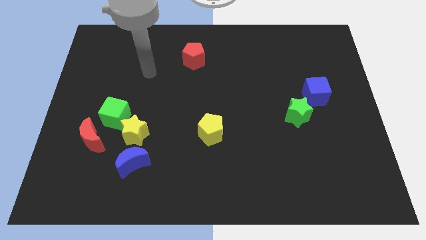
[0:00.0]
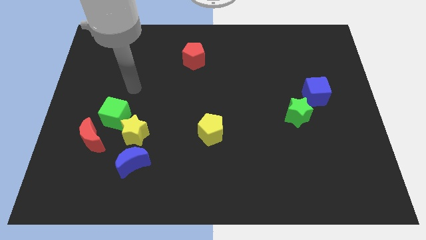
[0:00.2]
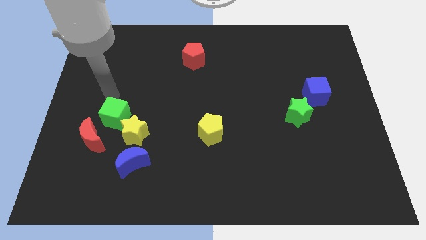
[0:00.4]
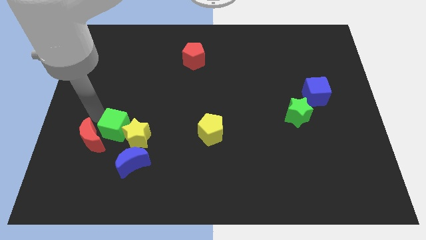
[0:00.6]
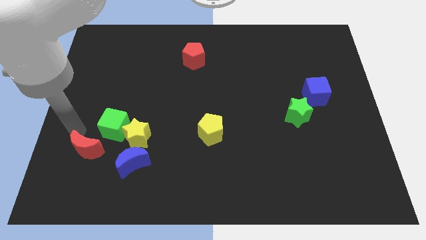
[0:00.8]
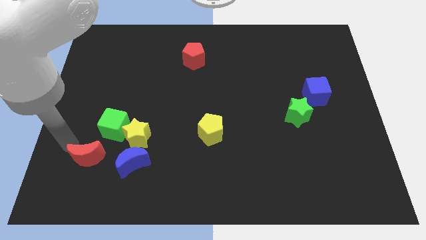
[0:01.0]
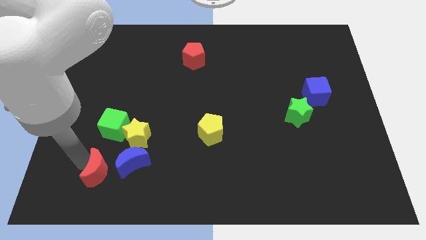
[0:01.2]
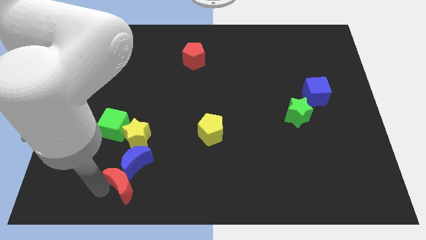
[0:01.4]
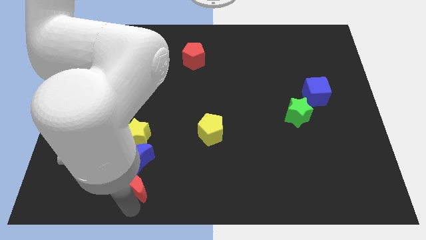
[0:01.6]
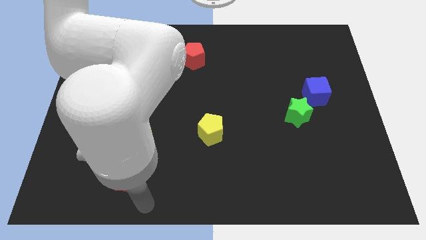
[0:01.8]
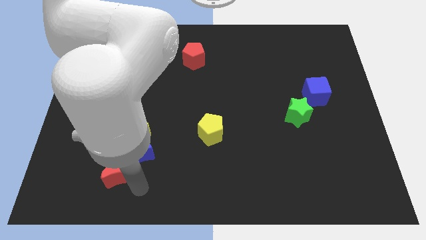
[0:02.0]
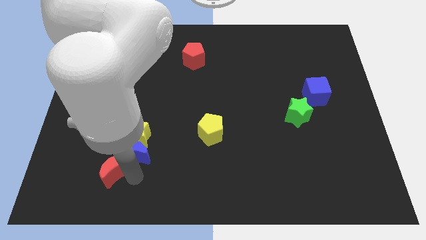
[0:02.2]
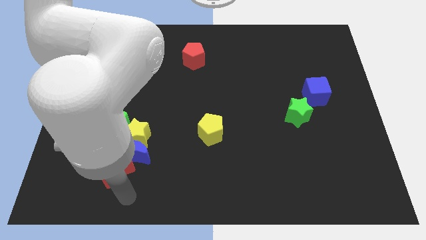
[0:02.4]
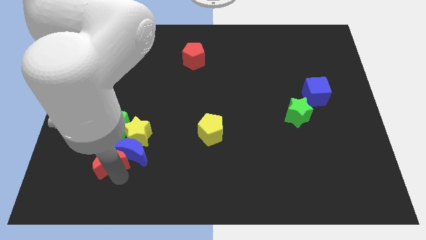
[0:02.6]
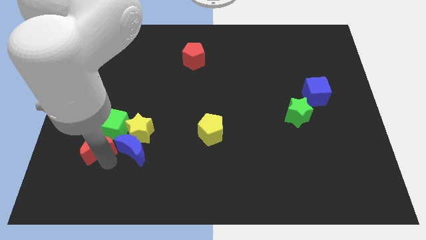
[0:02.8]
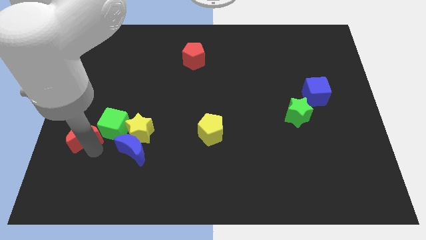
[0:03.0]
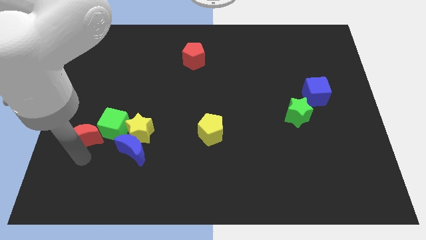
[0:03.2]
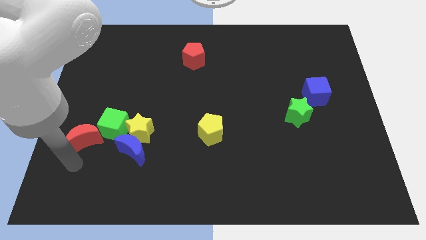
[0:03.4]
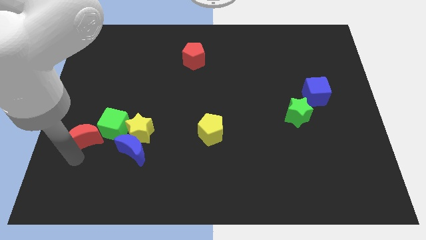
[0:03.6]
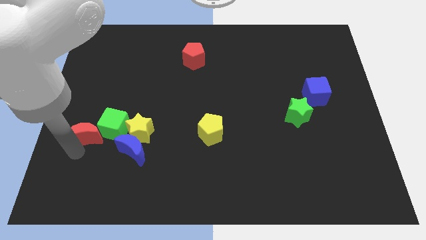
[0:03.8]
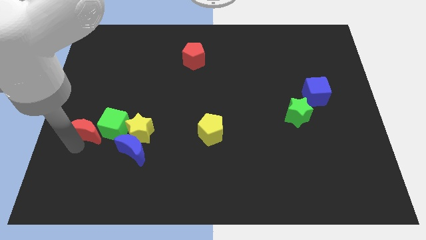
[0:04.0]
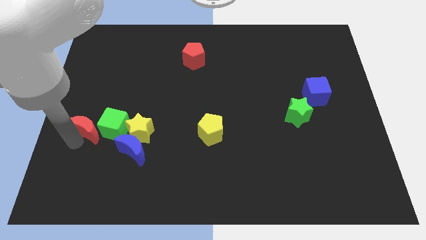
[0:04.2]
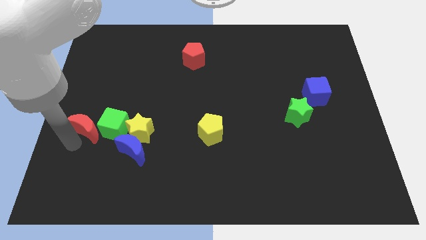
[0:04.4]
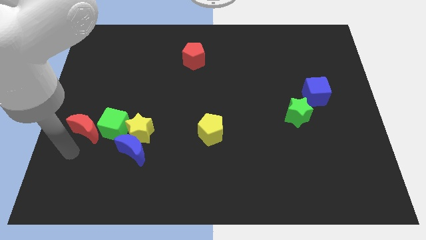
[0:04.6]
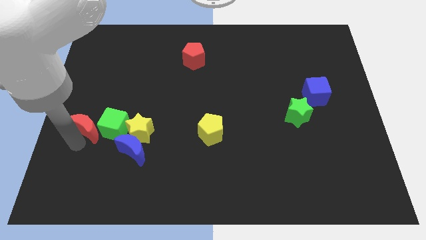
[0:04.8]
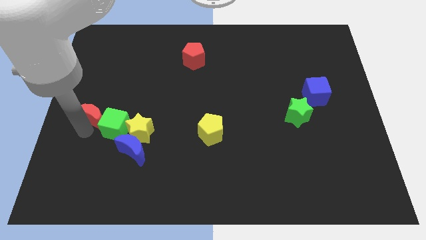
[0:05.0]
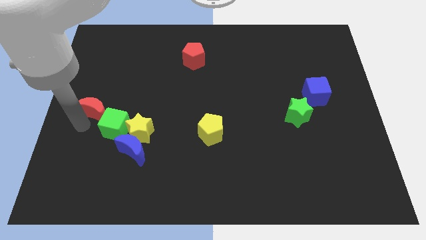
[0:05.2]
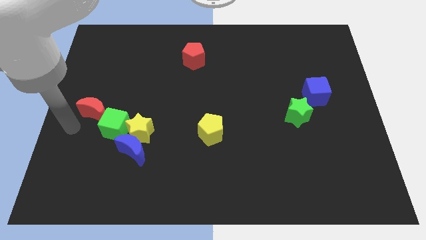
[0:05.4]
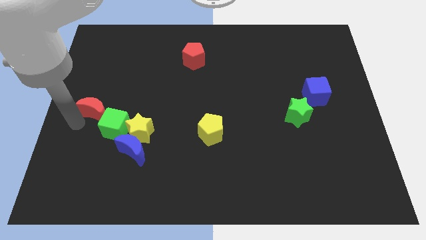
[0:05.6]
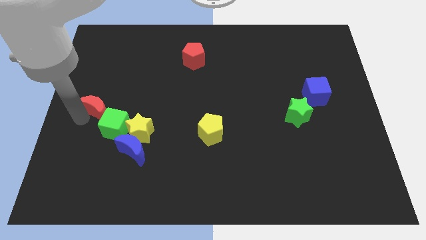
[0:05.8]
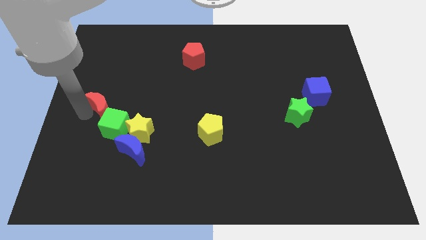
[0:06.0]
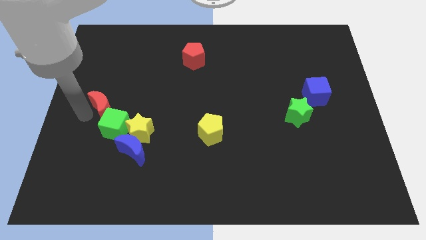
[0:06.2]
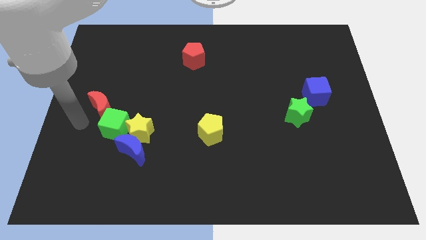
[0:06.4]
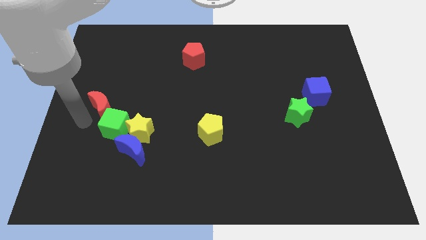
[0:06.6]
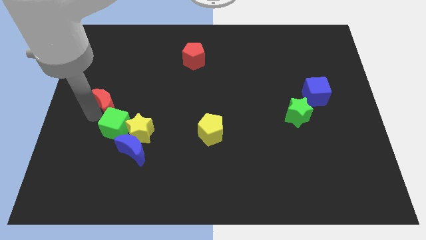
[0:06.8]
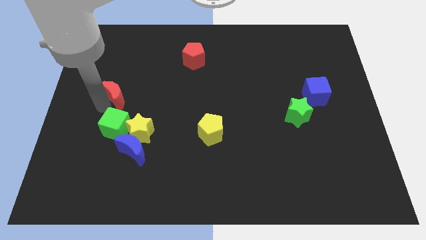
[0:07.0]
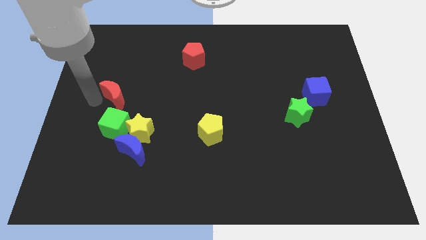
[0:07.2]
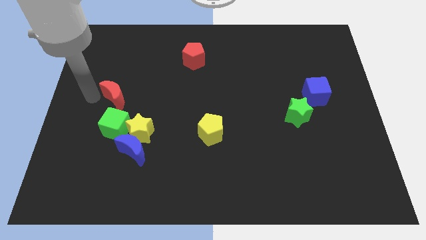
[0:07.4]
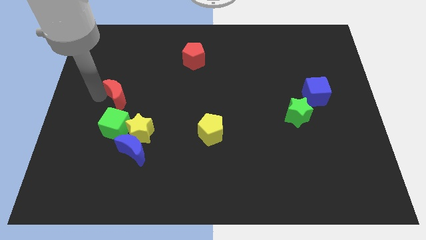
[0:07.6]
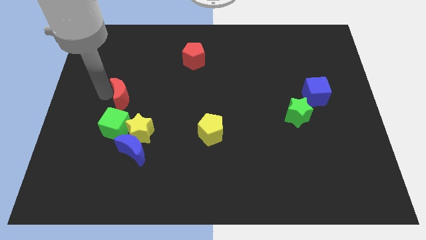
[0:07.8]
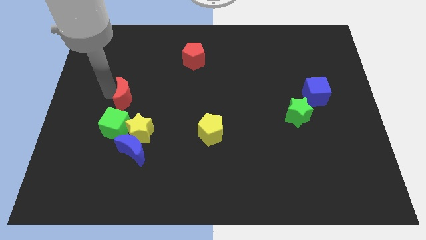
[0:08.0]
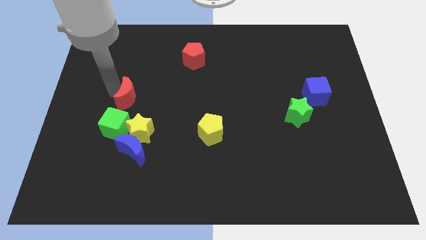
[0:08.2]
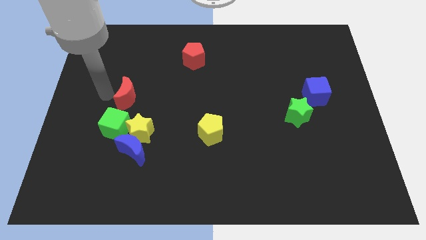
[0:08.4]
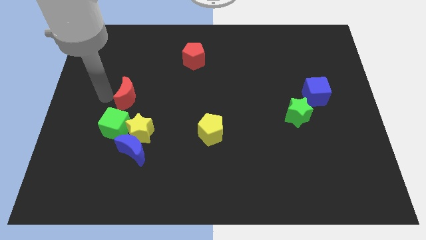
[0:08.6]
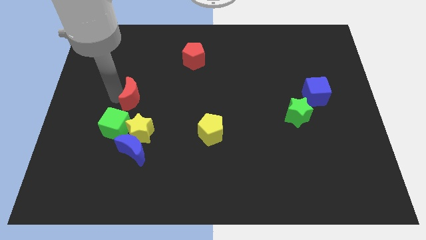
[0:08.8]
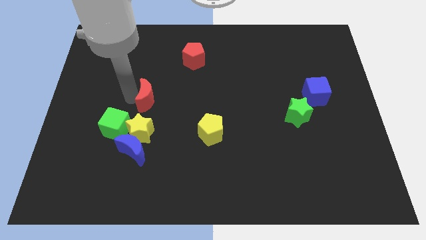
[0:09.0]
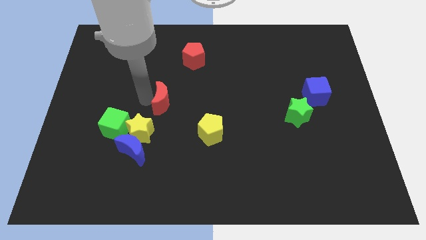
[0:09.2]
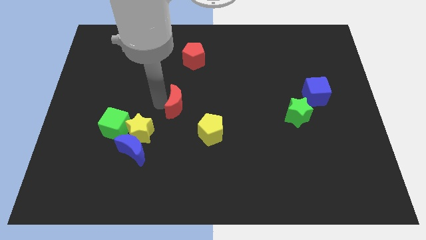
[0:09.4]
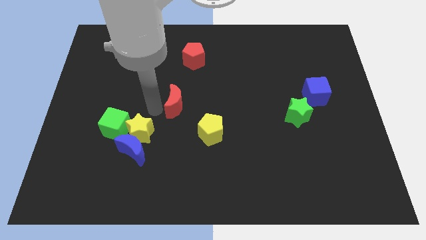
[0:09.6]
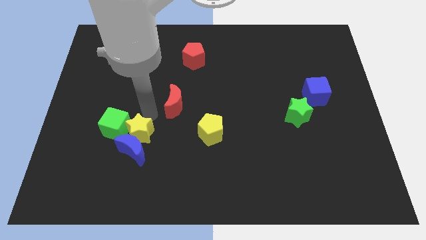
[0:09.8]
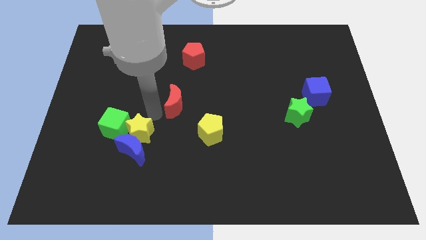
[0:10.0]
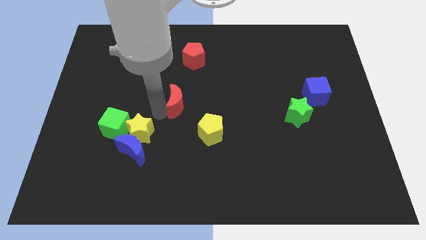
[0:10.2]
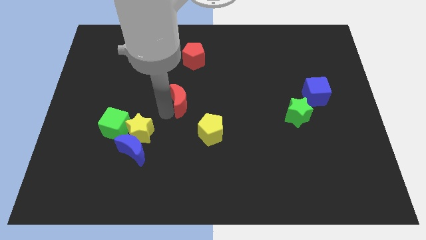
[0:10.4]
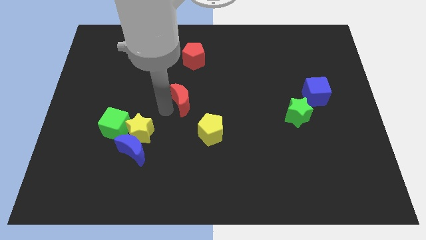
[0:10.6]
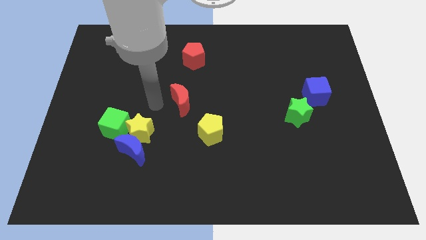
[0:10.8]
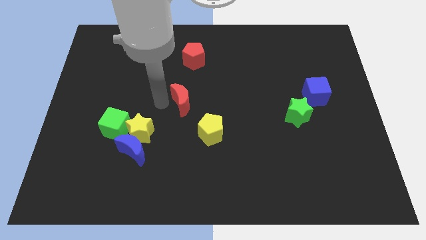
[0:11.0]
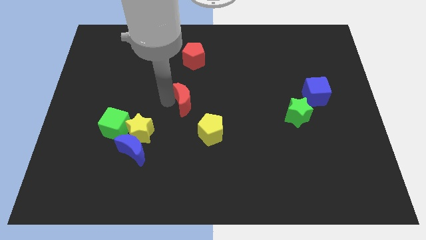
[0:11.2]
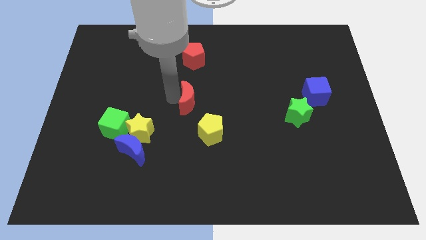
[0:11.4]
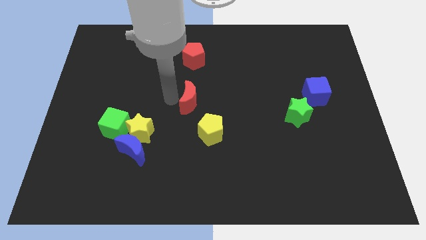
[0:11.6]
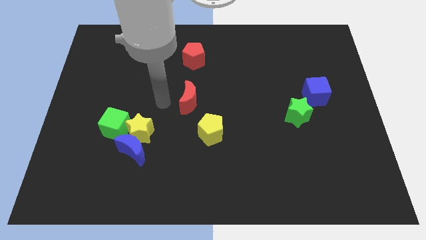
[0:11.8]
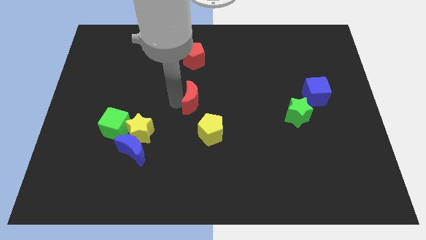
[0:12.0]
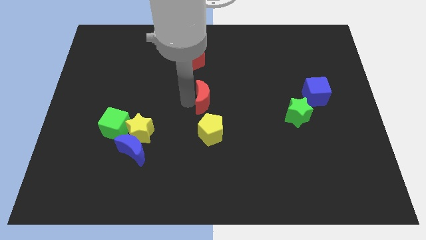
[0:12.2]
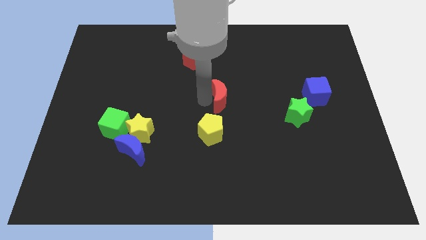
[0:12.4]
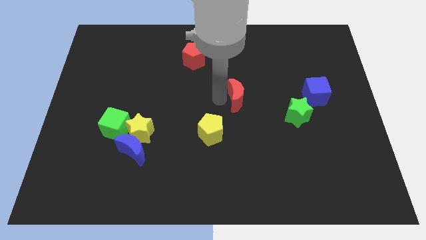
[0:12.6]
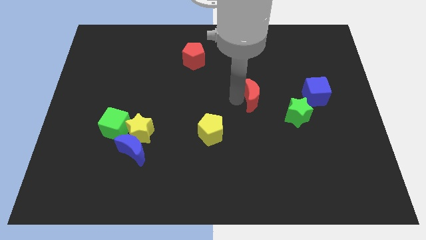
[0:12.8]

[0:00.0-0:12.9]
slide the red moon left of the blue cube

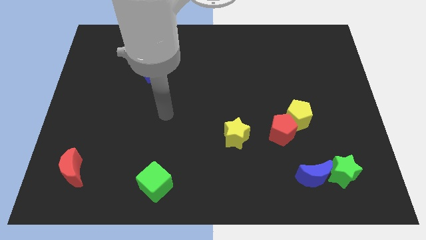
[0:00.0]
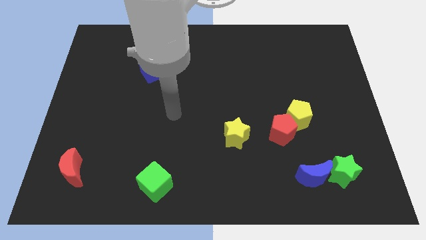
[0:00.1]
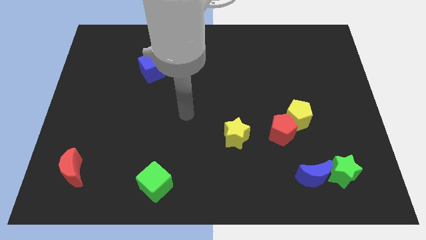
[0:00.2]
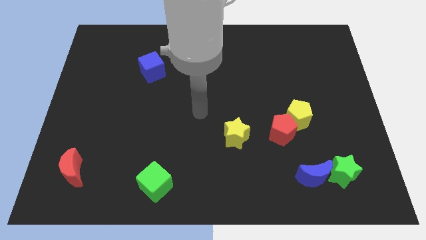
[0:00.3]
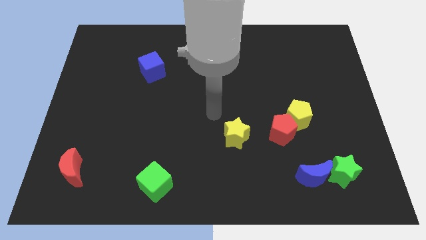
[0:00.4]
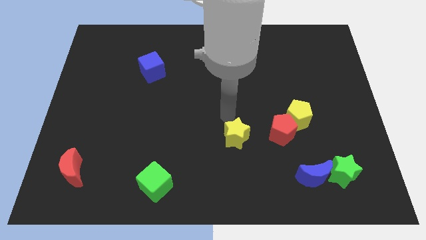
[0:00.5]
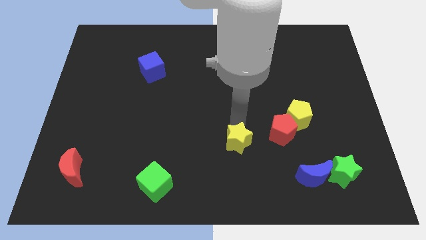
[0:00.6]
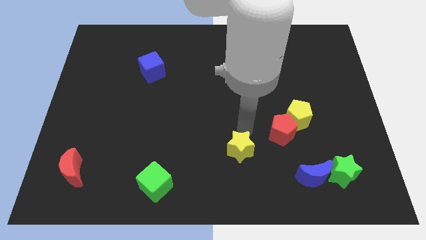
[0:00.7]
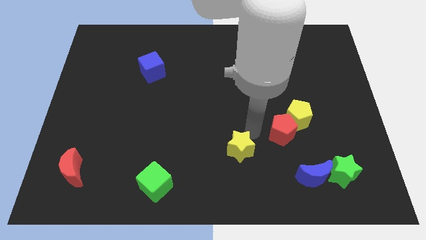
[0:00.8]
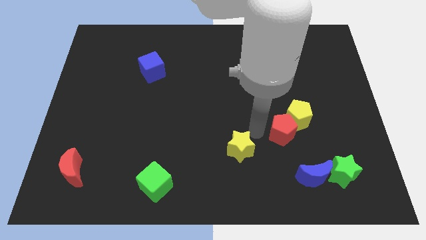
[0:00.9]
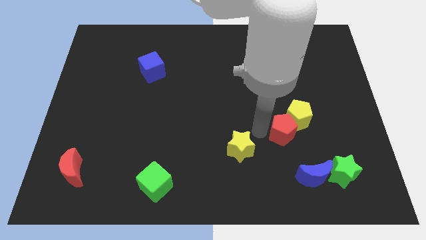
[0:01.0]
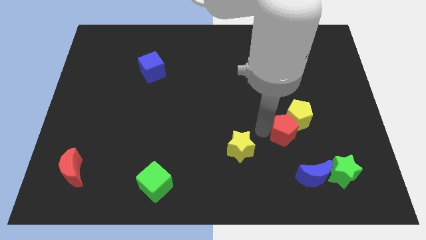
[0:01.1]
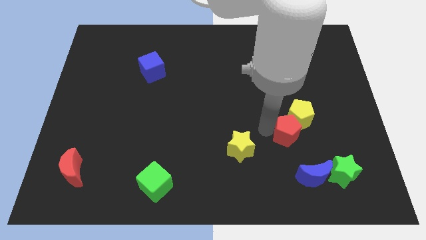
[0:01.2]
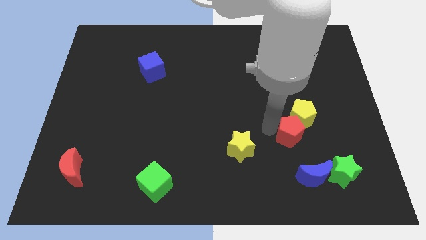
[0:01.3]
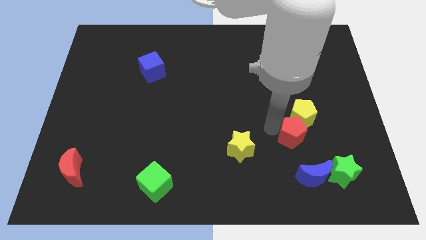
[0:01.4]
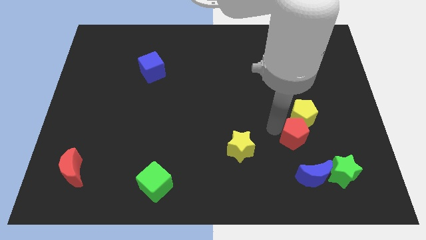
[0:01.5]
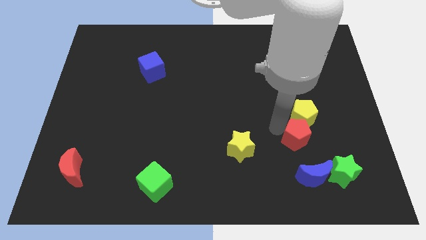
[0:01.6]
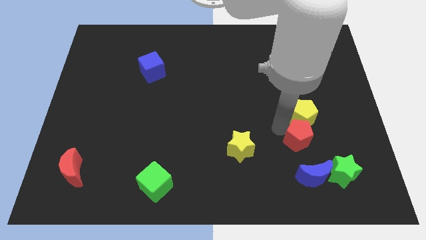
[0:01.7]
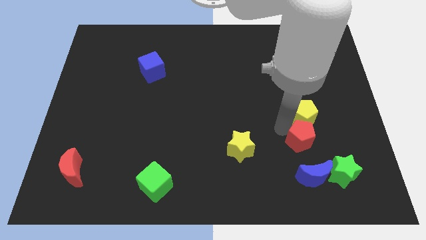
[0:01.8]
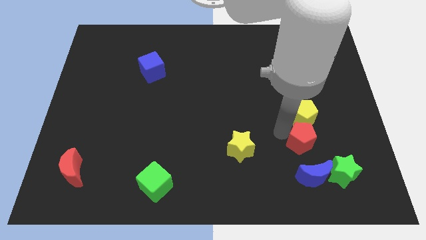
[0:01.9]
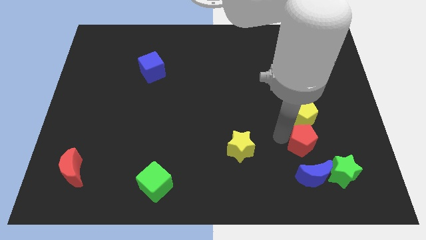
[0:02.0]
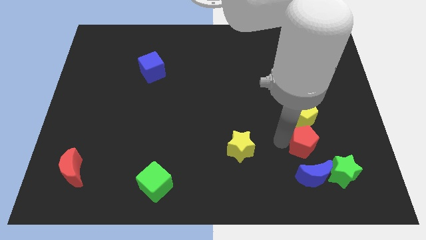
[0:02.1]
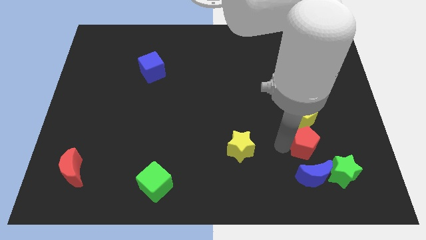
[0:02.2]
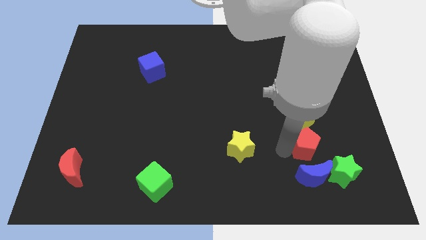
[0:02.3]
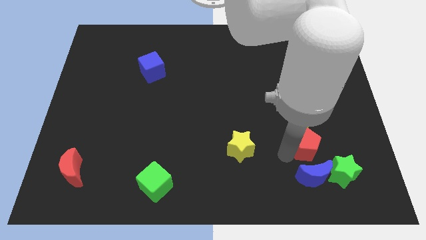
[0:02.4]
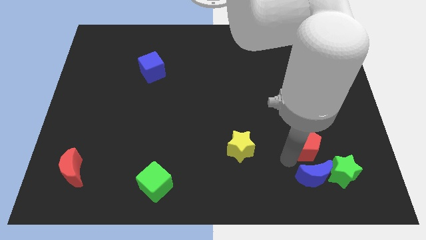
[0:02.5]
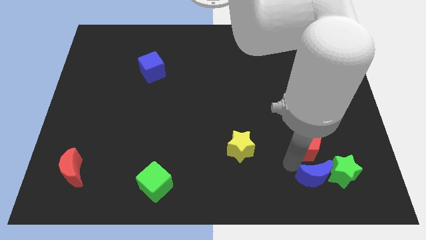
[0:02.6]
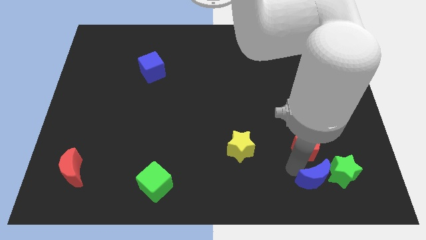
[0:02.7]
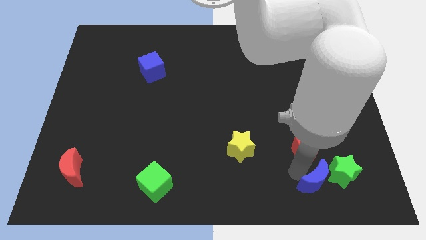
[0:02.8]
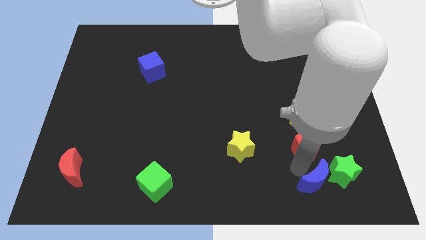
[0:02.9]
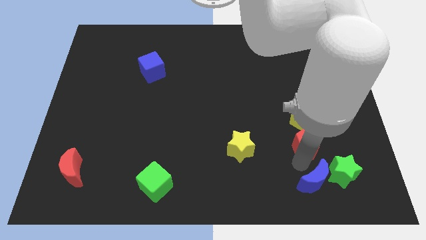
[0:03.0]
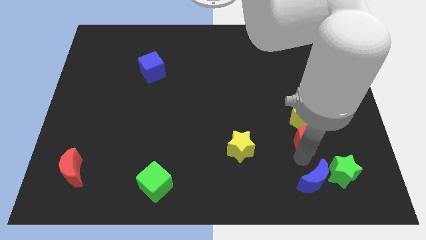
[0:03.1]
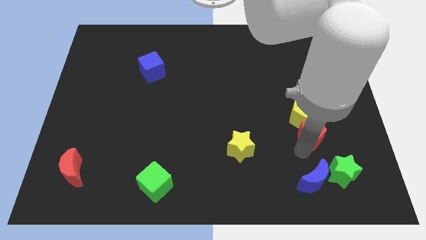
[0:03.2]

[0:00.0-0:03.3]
move the red pentagon to the top side of the green star
